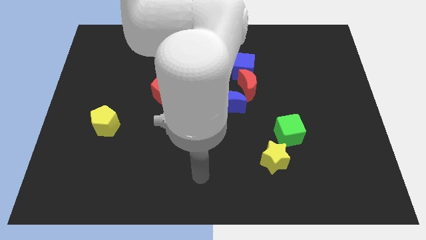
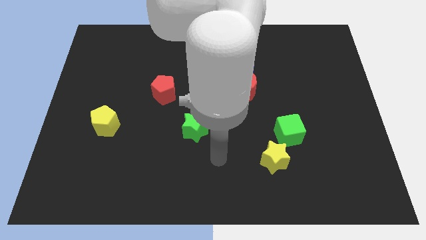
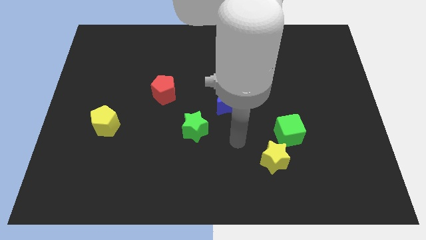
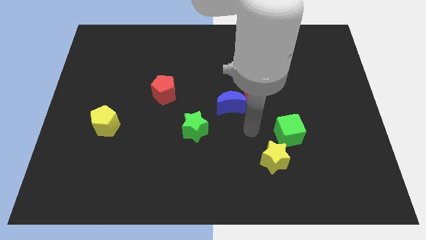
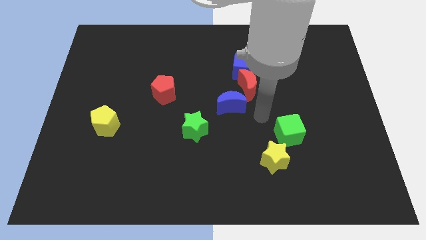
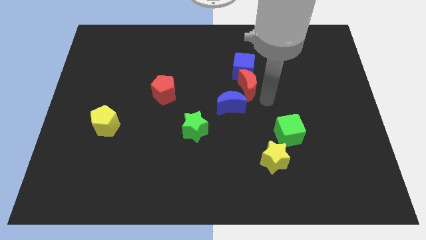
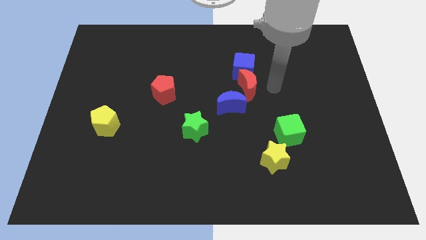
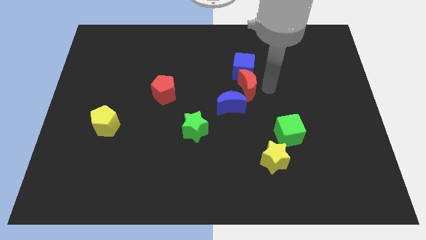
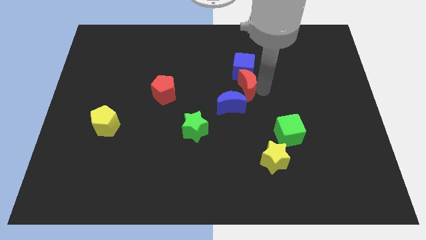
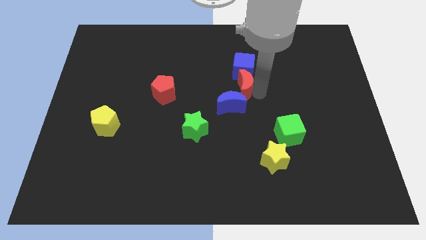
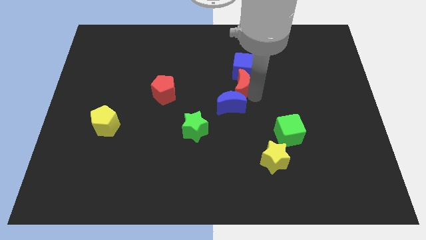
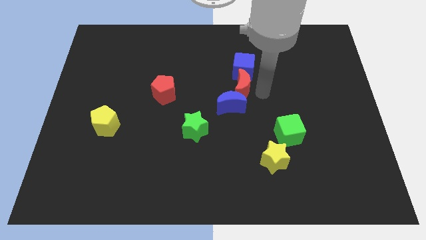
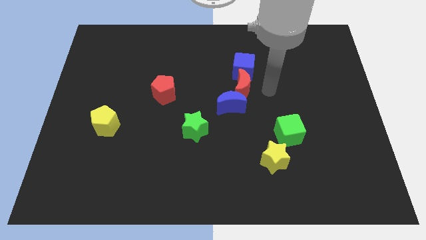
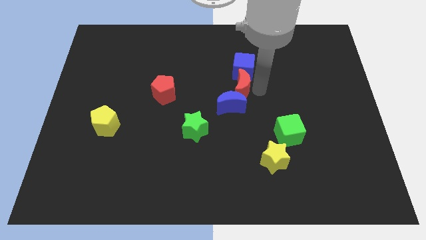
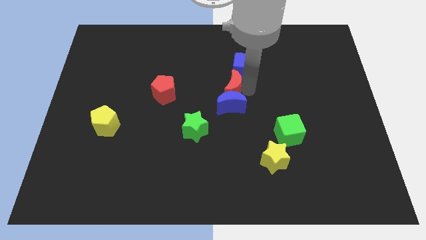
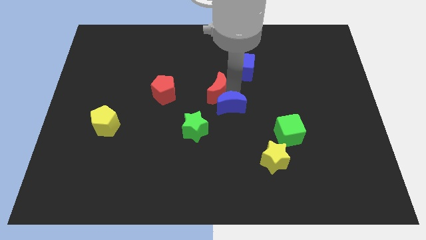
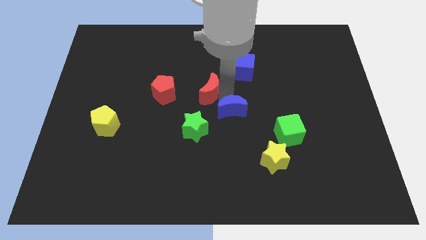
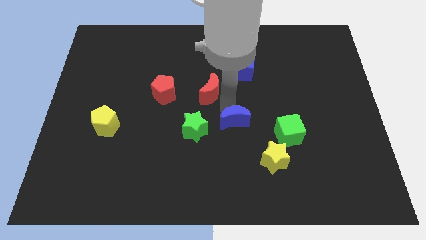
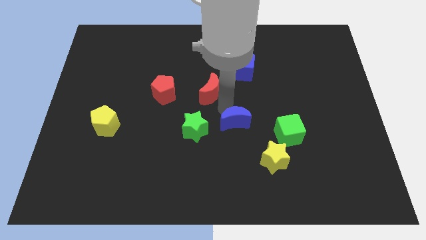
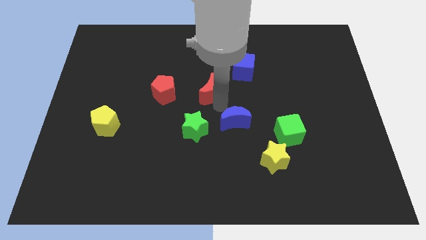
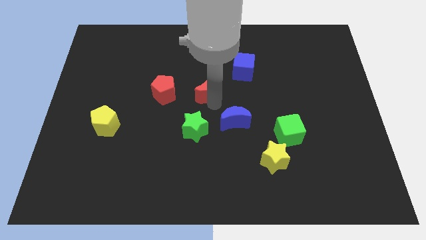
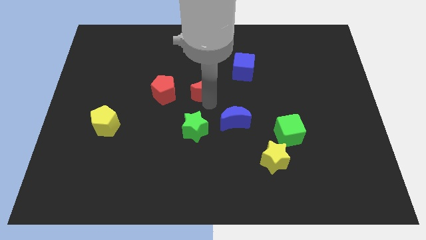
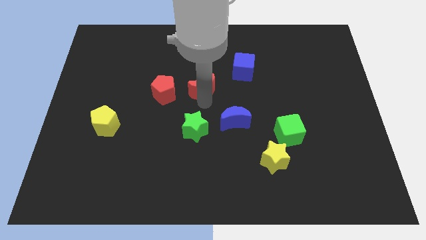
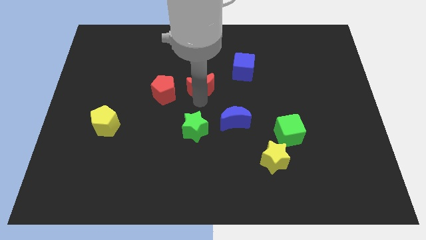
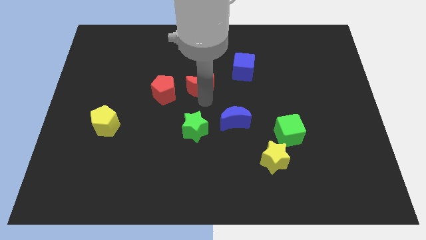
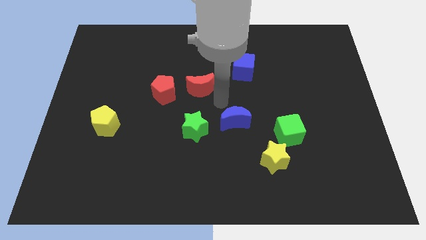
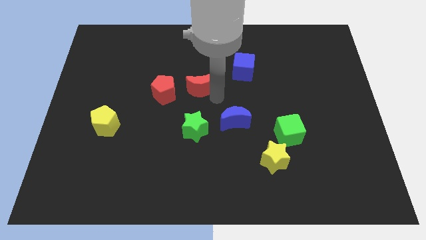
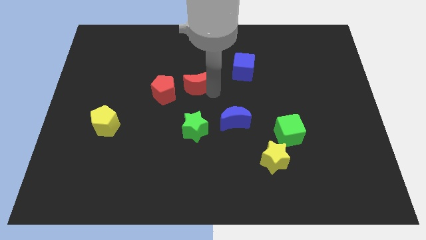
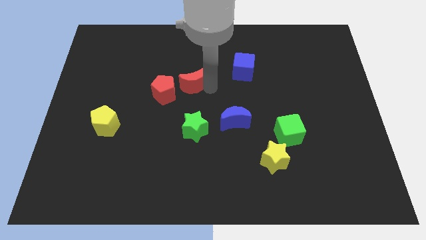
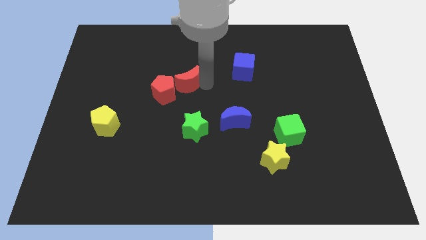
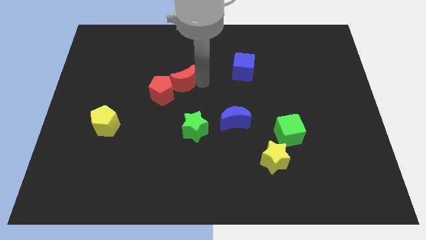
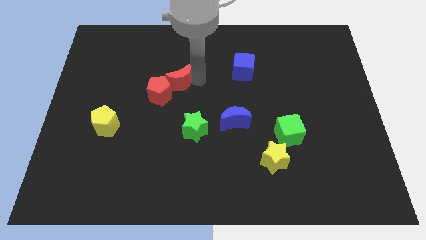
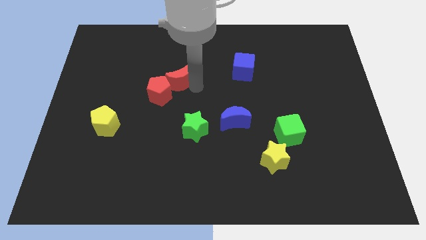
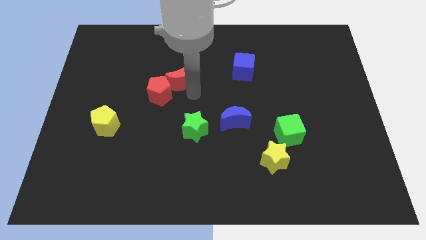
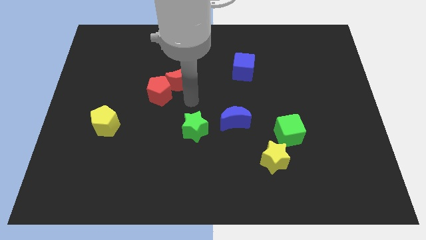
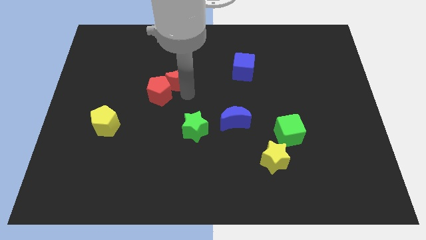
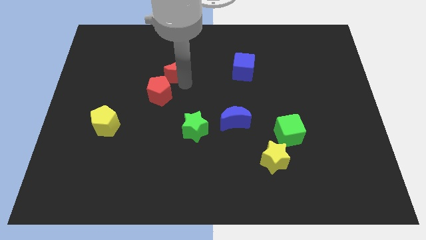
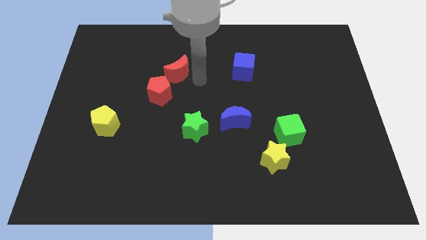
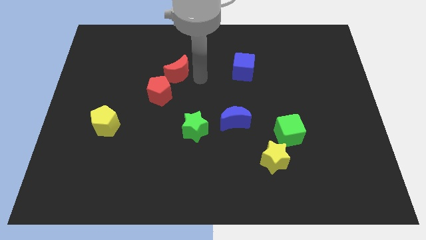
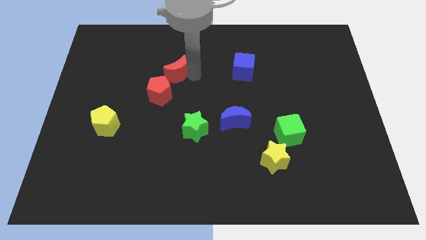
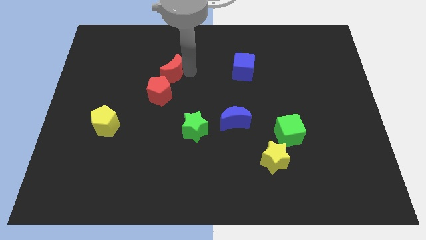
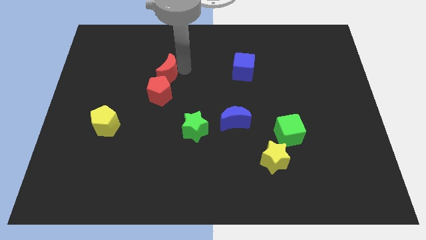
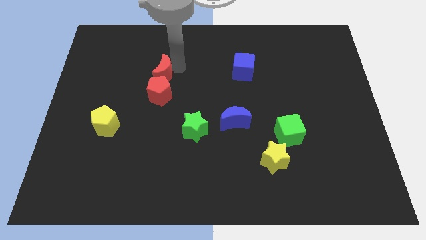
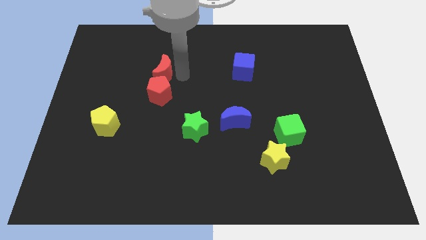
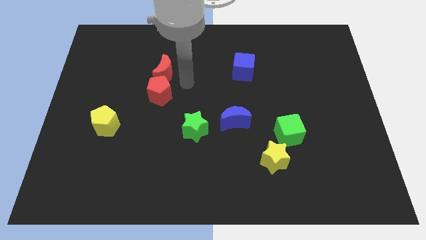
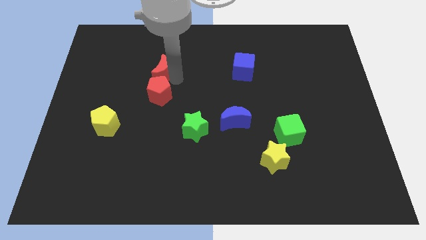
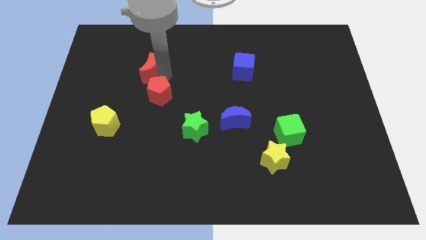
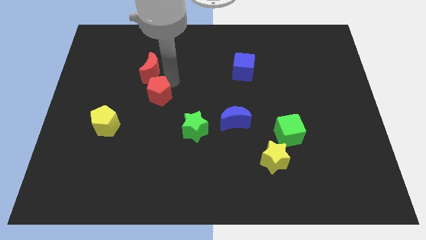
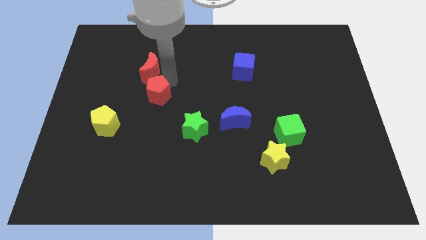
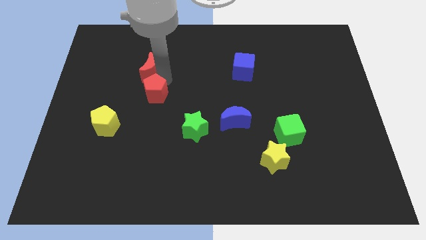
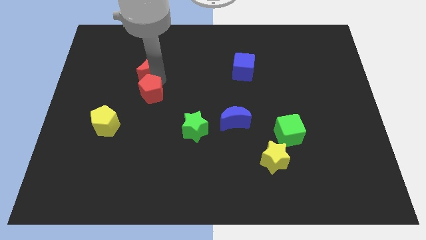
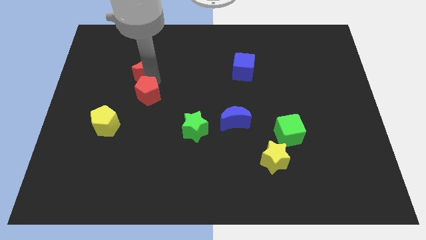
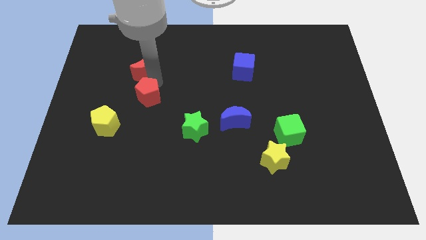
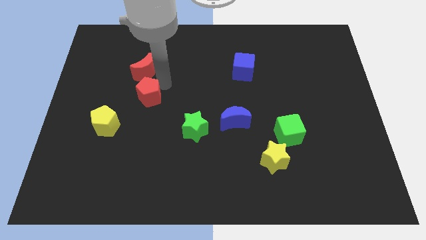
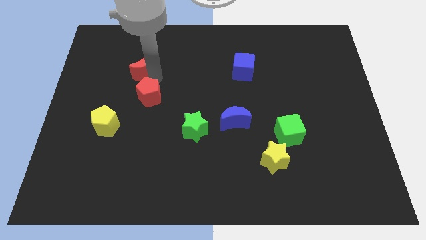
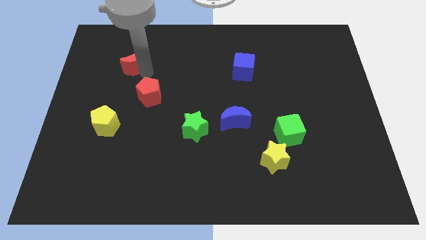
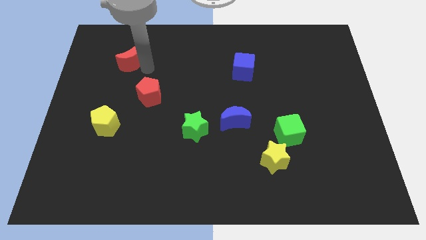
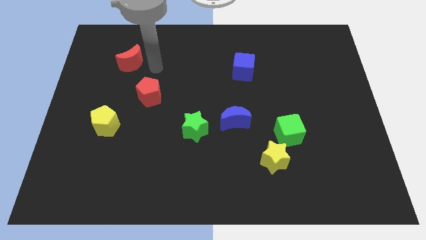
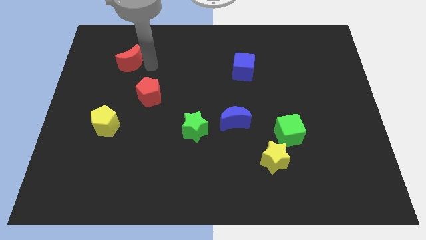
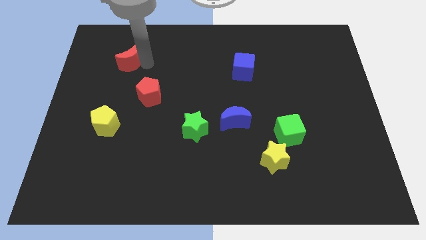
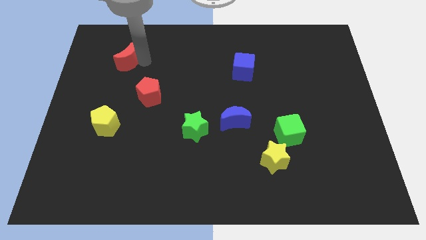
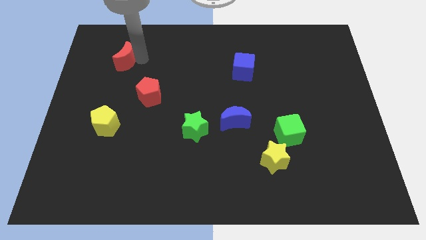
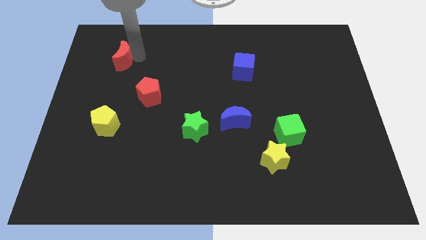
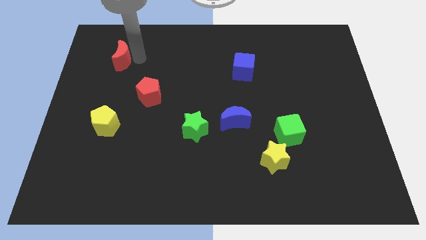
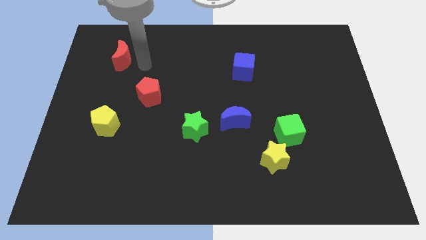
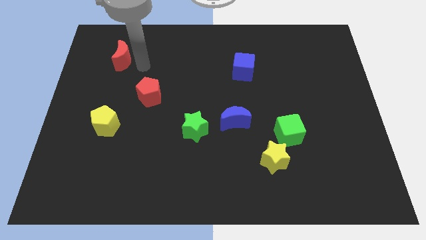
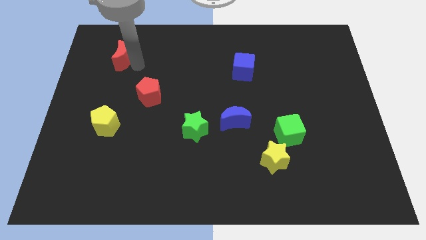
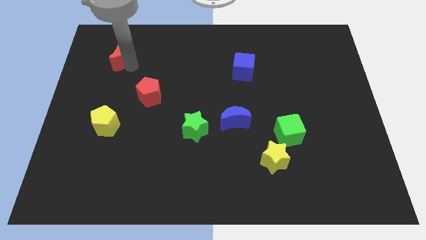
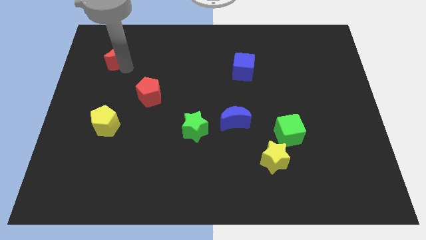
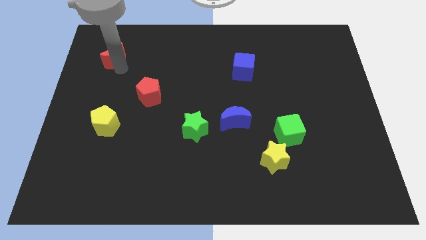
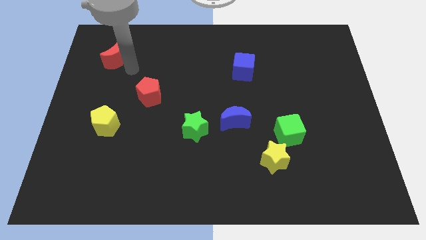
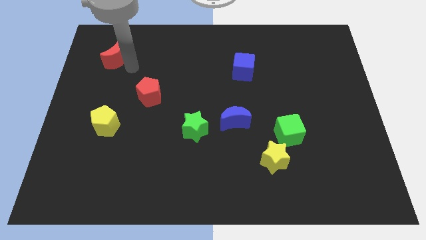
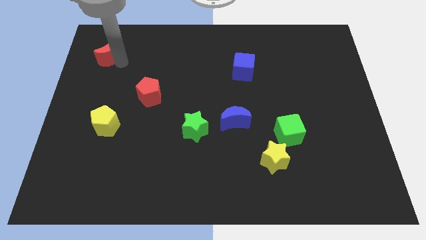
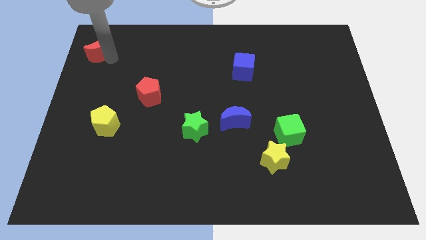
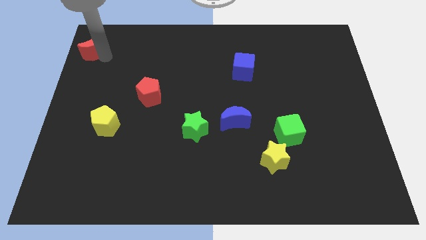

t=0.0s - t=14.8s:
push the red moon to the top left
